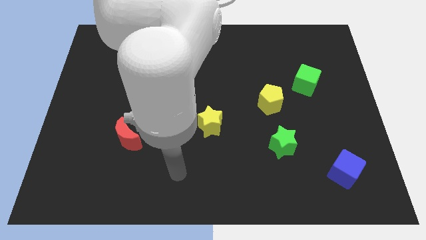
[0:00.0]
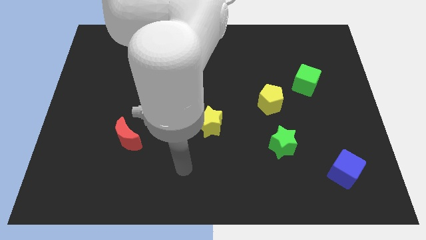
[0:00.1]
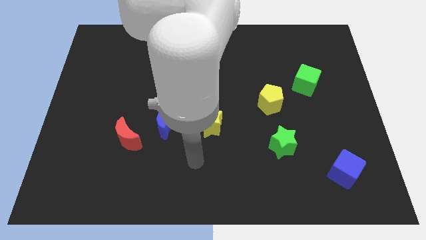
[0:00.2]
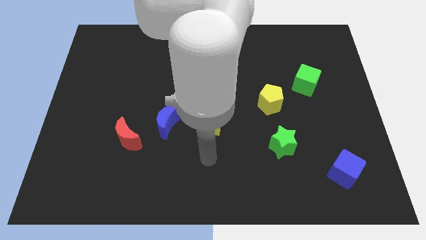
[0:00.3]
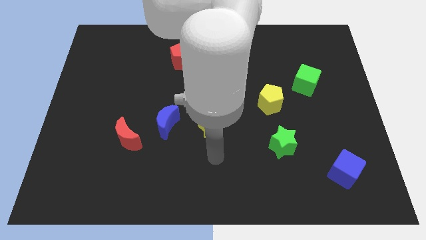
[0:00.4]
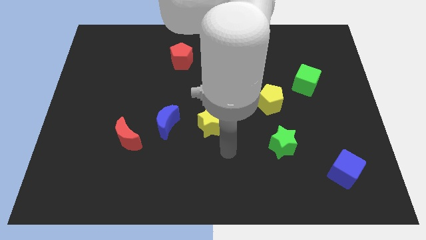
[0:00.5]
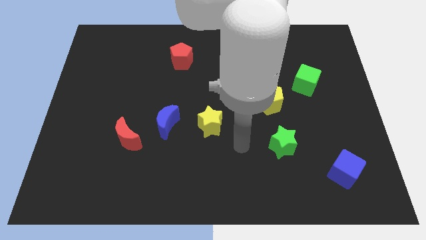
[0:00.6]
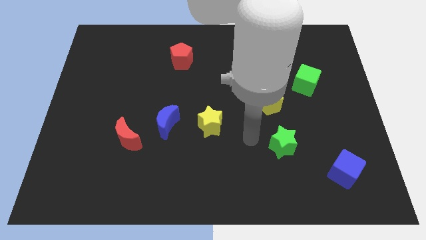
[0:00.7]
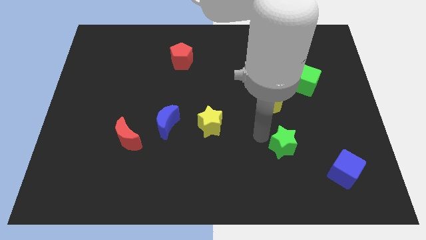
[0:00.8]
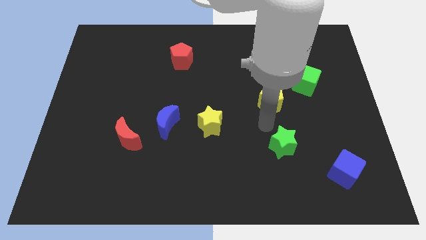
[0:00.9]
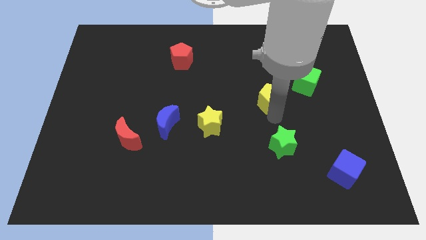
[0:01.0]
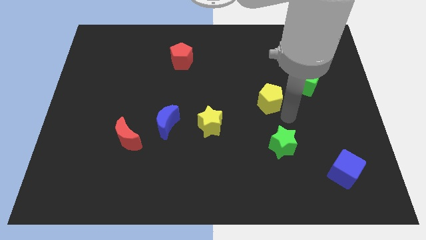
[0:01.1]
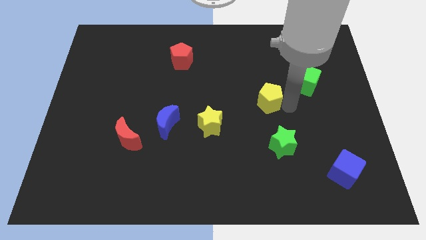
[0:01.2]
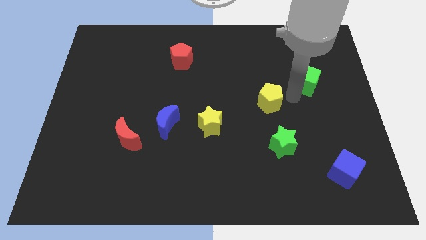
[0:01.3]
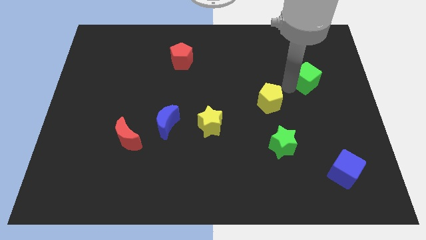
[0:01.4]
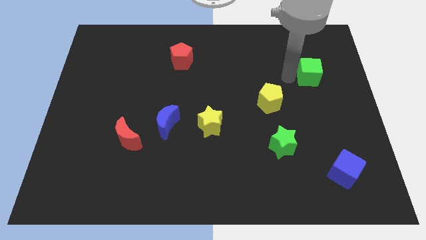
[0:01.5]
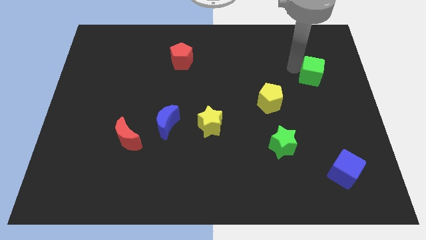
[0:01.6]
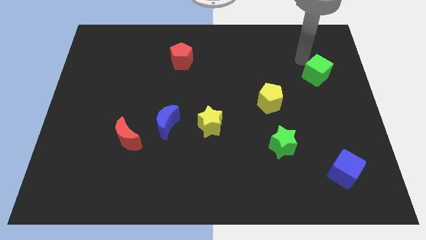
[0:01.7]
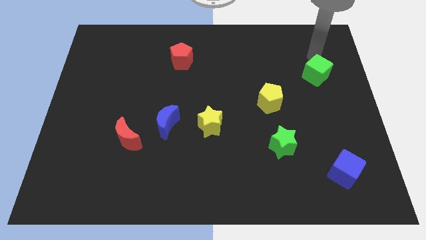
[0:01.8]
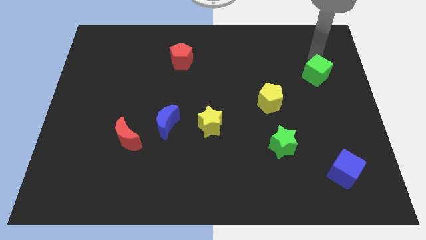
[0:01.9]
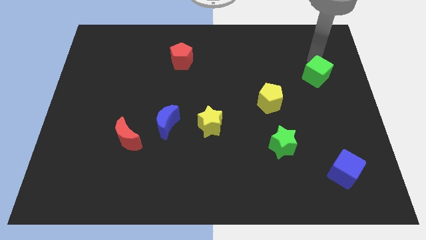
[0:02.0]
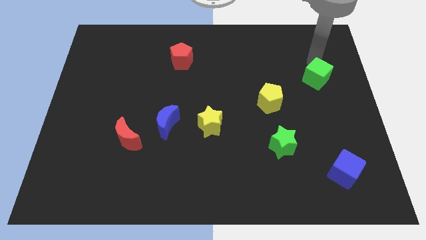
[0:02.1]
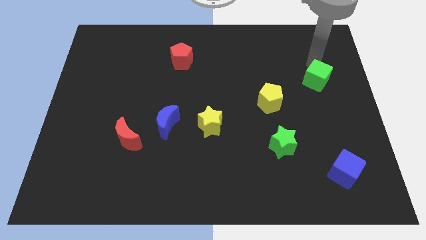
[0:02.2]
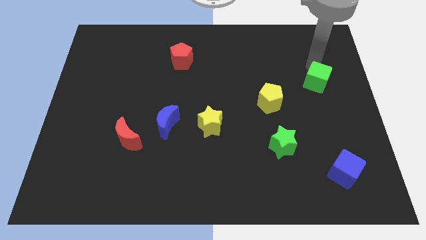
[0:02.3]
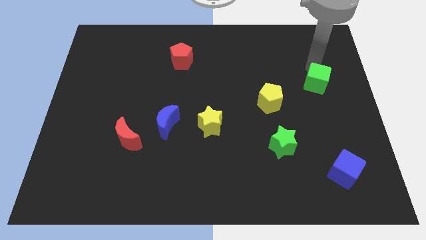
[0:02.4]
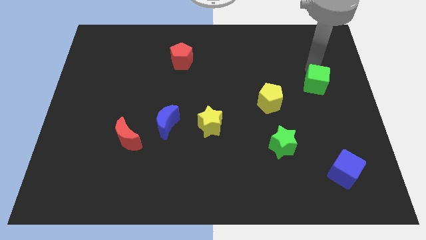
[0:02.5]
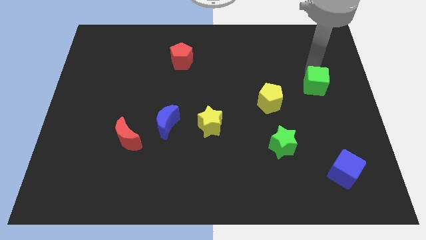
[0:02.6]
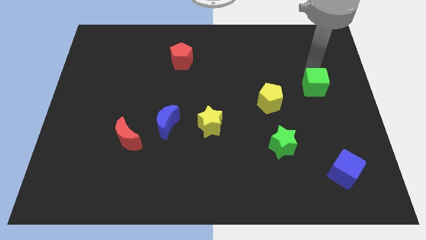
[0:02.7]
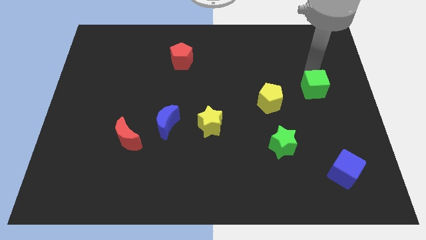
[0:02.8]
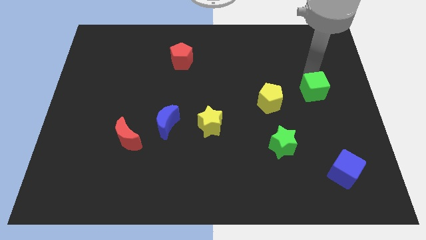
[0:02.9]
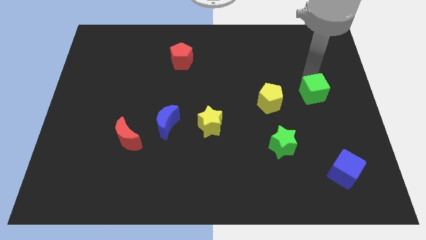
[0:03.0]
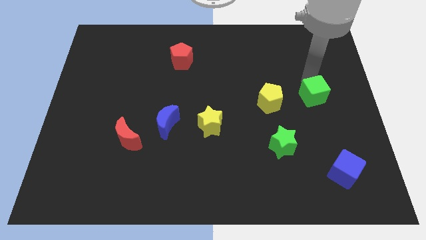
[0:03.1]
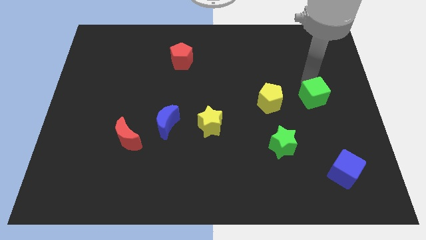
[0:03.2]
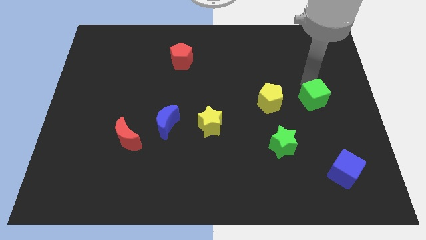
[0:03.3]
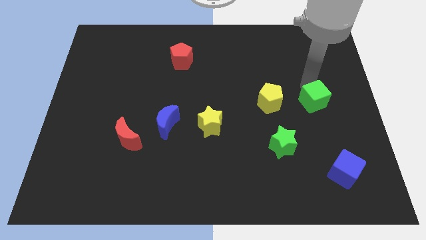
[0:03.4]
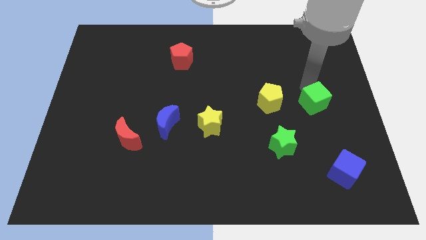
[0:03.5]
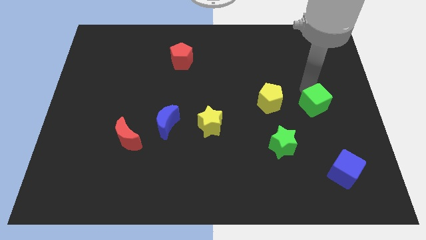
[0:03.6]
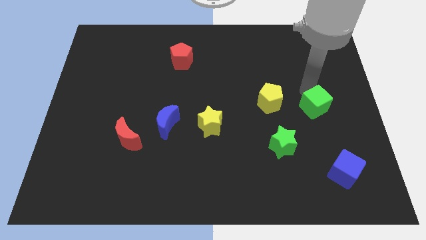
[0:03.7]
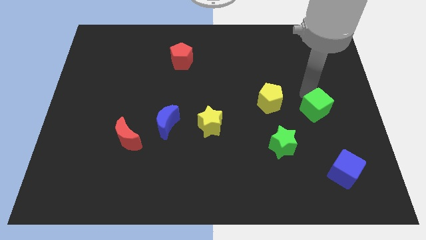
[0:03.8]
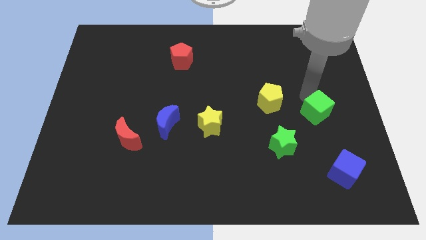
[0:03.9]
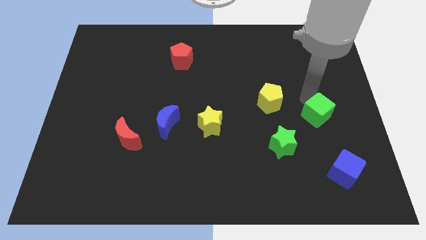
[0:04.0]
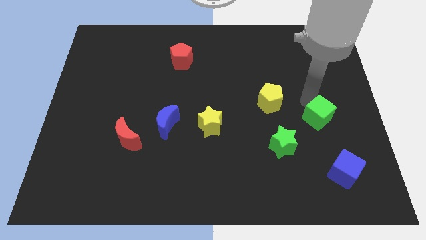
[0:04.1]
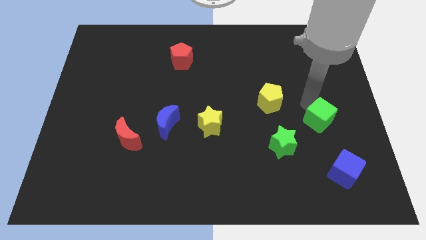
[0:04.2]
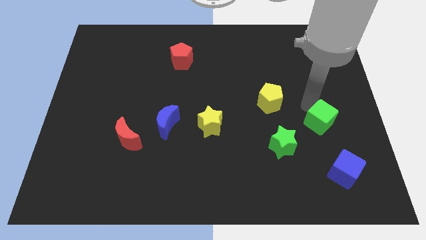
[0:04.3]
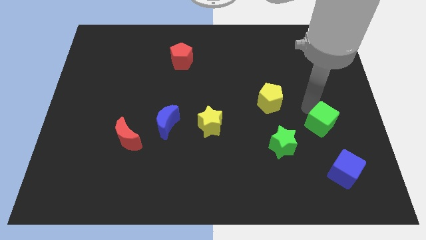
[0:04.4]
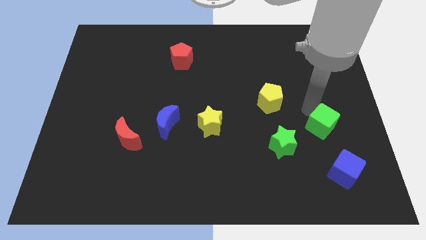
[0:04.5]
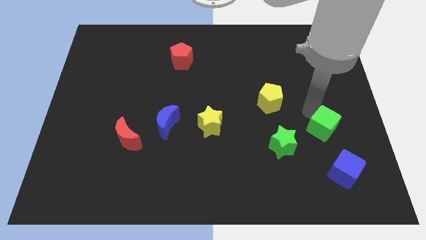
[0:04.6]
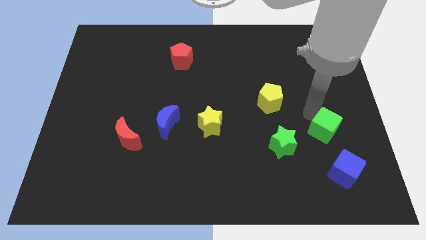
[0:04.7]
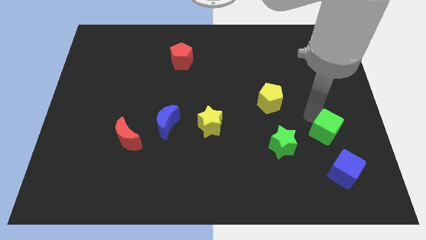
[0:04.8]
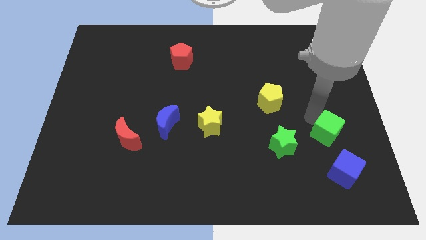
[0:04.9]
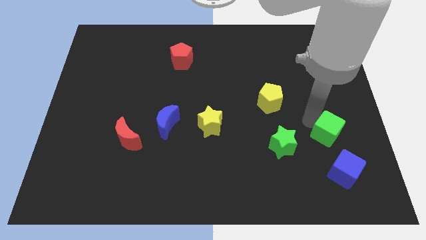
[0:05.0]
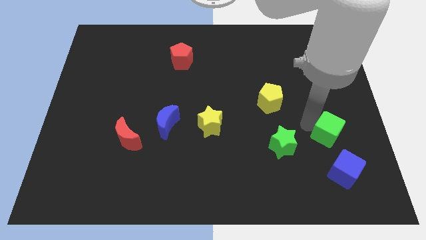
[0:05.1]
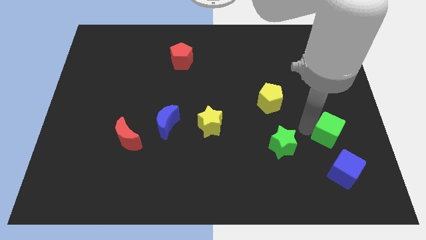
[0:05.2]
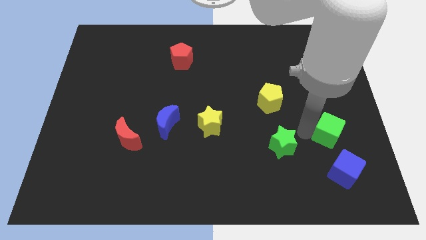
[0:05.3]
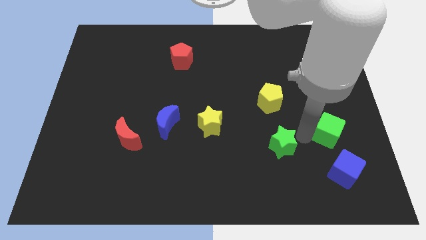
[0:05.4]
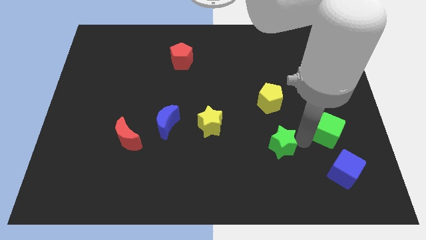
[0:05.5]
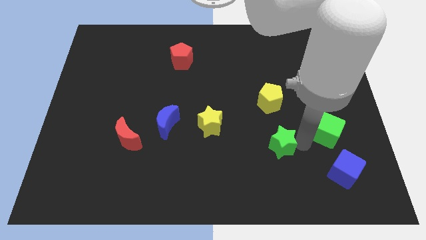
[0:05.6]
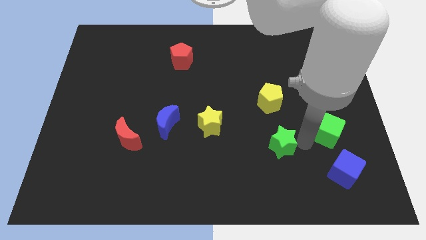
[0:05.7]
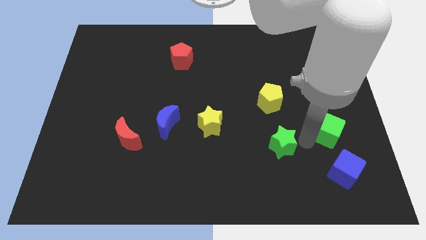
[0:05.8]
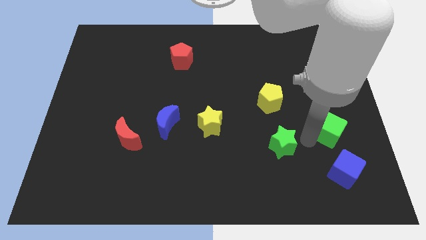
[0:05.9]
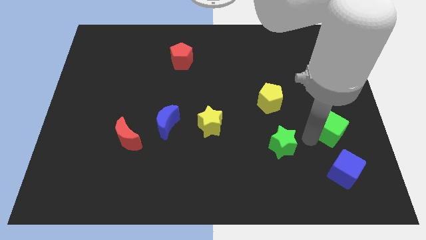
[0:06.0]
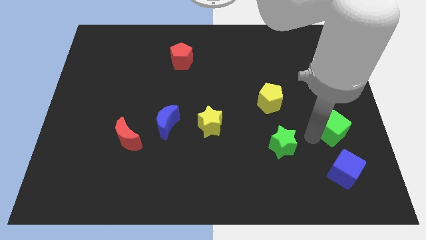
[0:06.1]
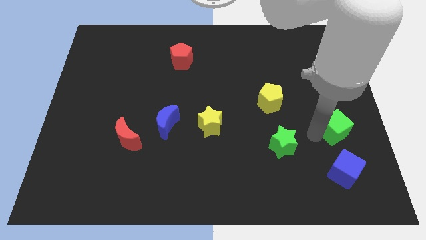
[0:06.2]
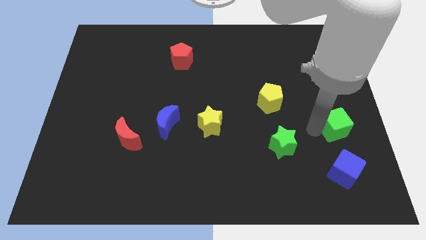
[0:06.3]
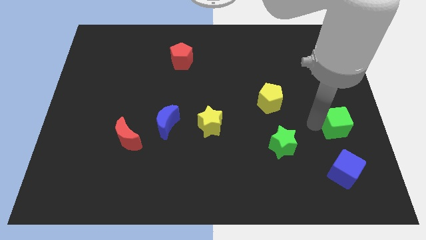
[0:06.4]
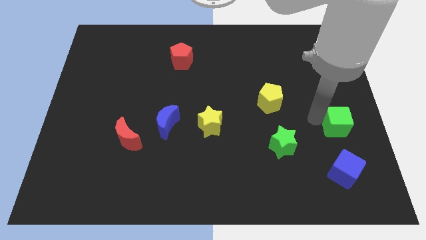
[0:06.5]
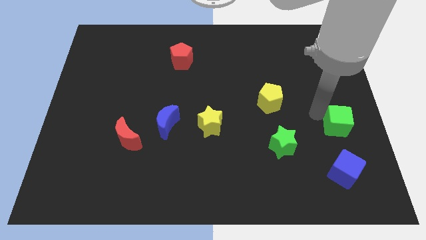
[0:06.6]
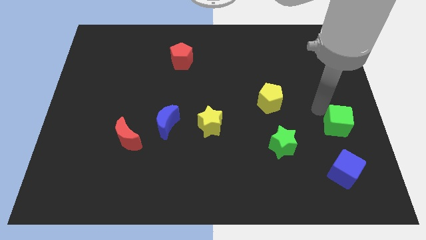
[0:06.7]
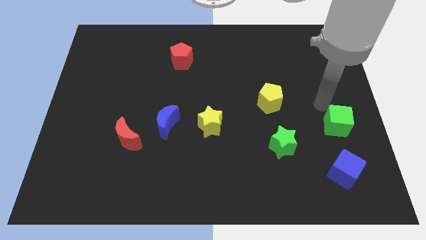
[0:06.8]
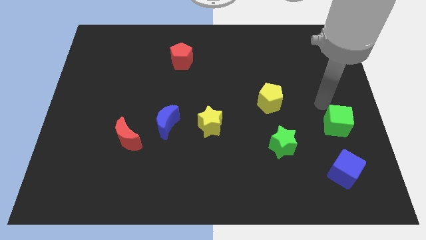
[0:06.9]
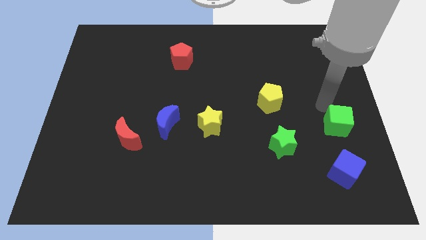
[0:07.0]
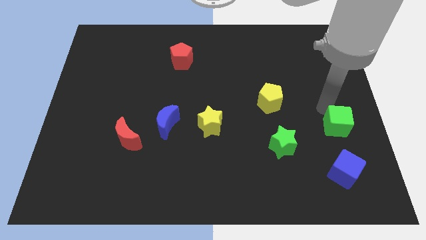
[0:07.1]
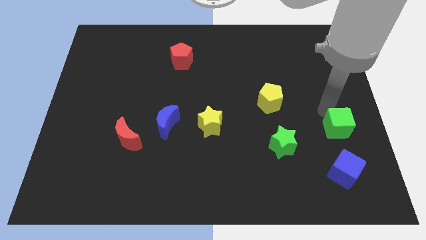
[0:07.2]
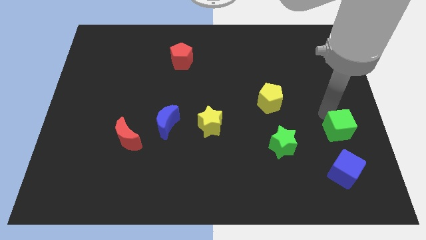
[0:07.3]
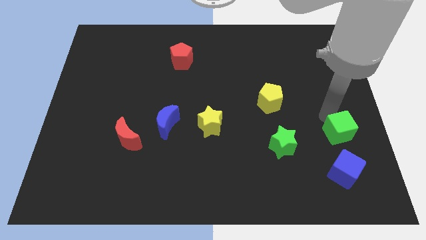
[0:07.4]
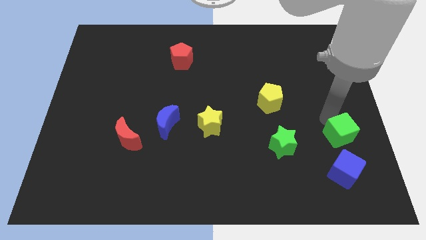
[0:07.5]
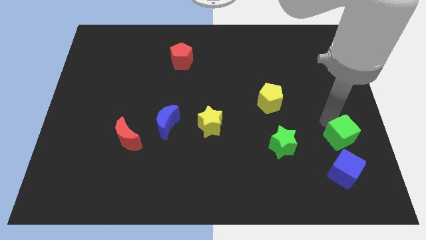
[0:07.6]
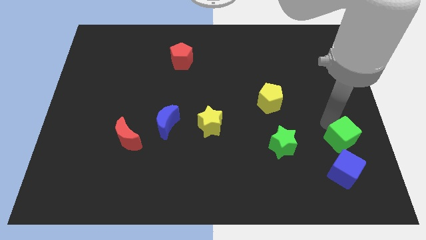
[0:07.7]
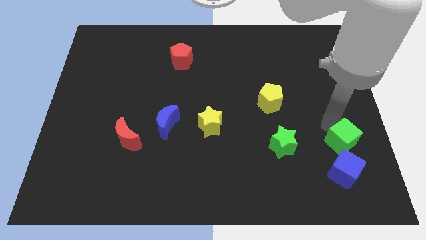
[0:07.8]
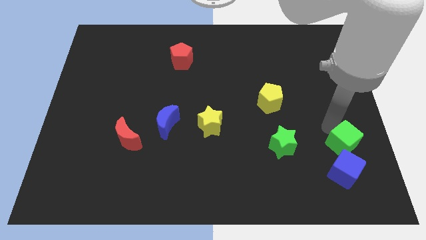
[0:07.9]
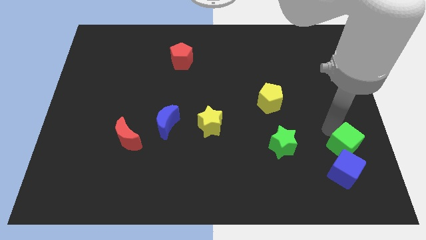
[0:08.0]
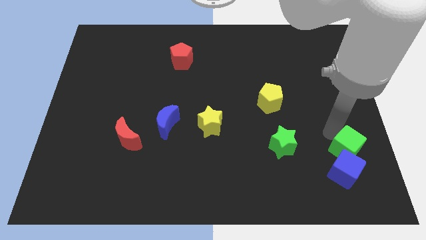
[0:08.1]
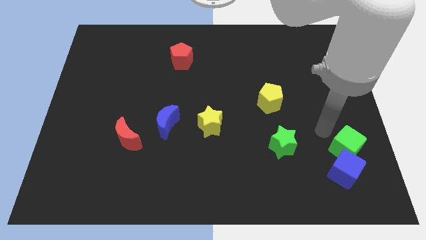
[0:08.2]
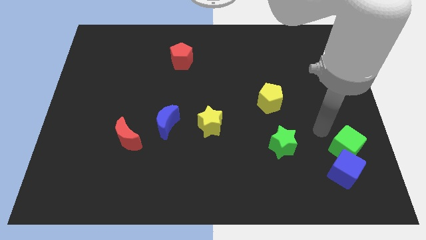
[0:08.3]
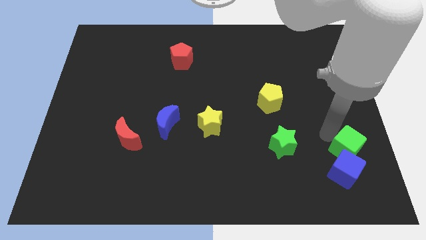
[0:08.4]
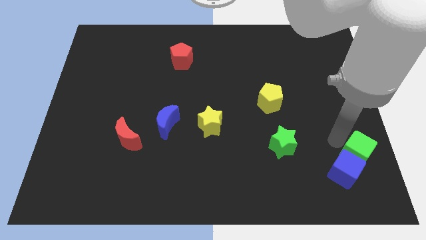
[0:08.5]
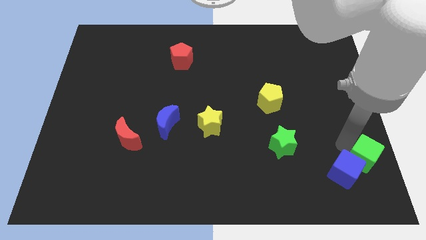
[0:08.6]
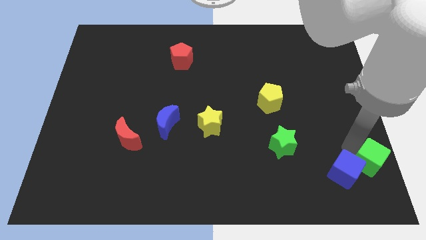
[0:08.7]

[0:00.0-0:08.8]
push the green cube to the lower right corner
